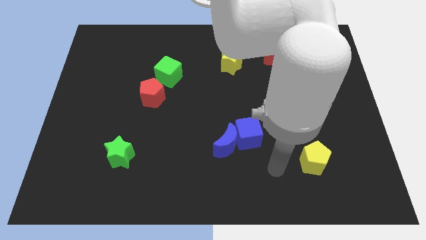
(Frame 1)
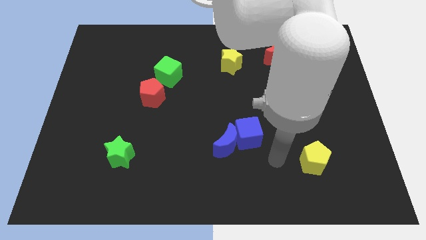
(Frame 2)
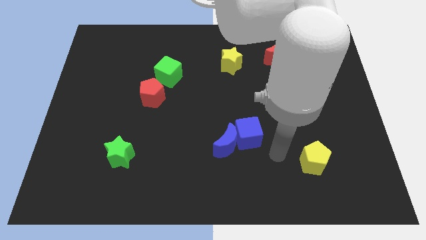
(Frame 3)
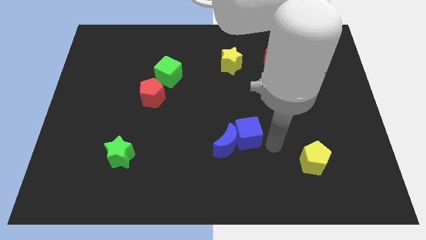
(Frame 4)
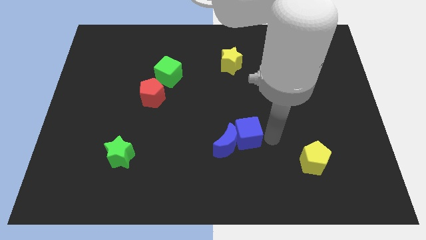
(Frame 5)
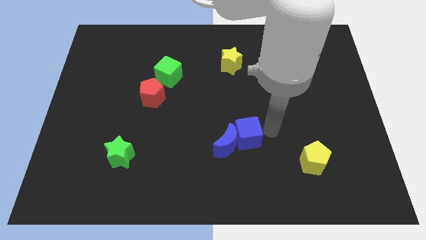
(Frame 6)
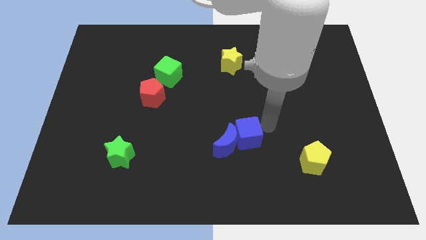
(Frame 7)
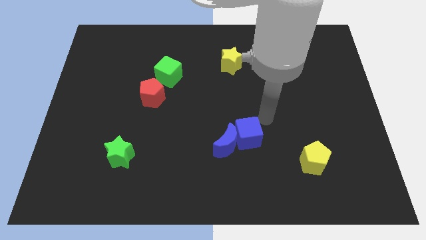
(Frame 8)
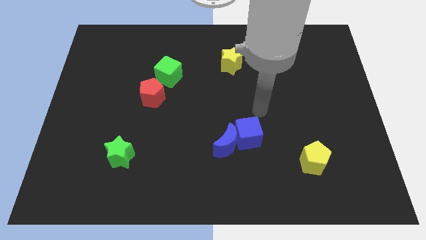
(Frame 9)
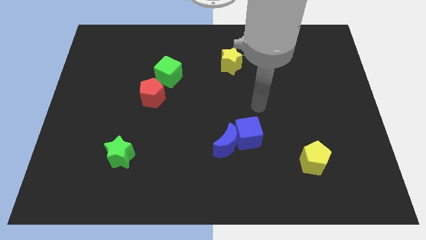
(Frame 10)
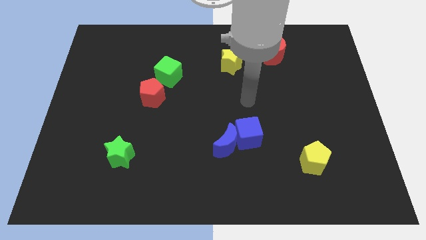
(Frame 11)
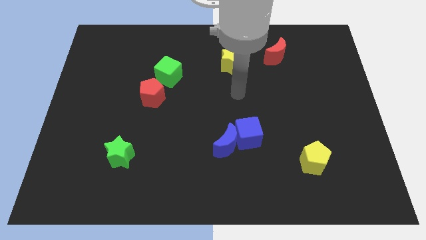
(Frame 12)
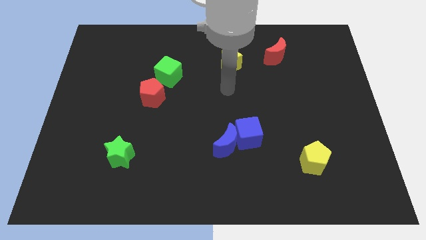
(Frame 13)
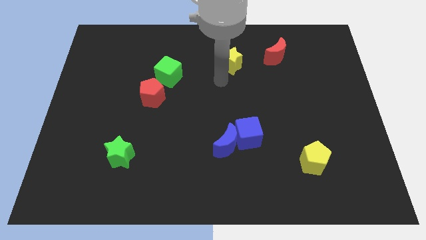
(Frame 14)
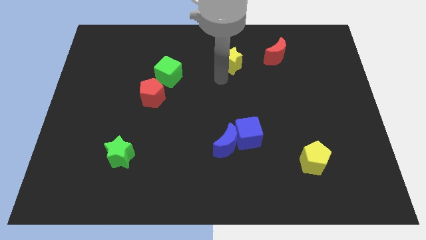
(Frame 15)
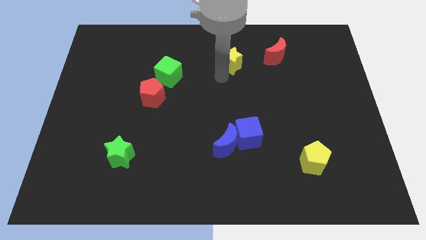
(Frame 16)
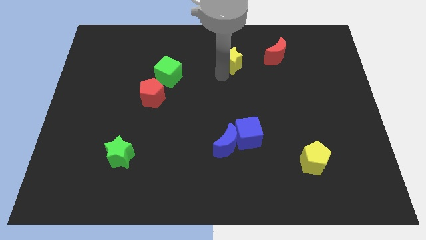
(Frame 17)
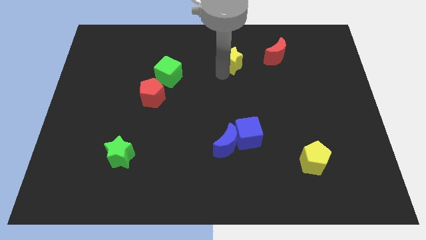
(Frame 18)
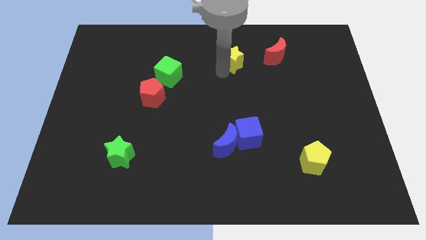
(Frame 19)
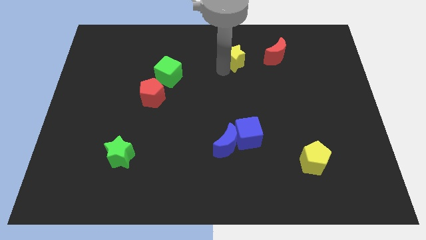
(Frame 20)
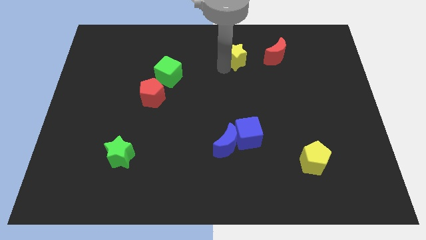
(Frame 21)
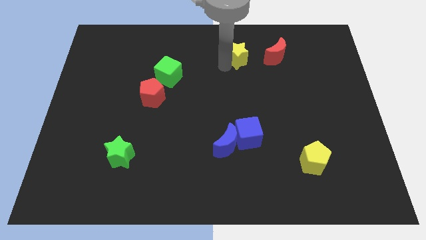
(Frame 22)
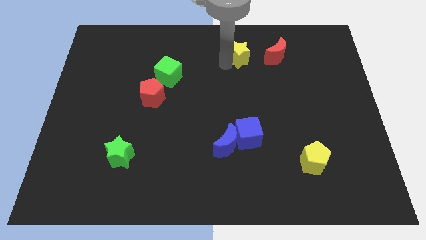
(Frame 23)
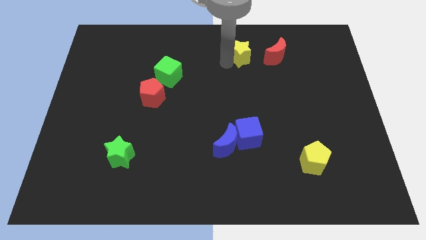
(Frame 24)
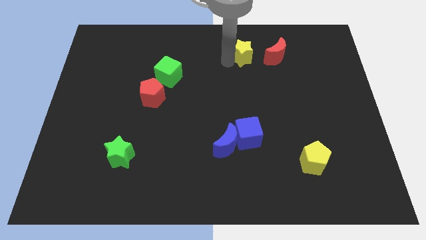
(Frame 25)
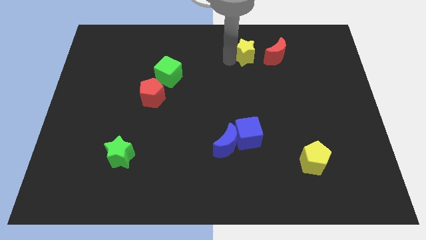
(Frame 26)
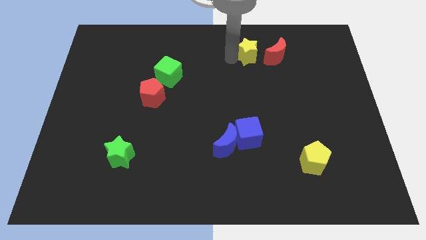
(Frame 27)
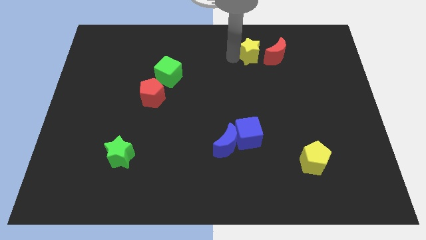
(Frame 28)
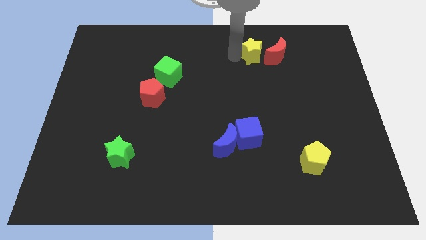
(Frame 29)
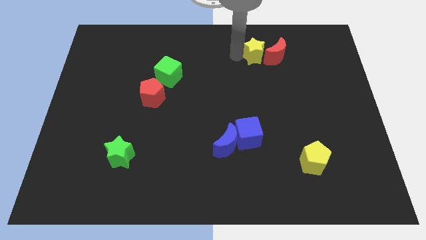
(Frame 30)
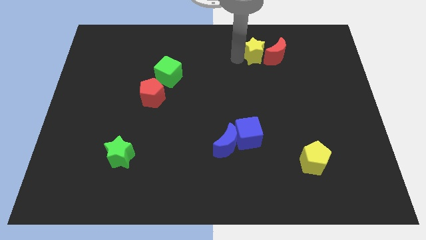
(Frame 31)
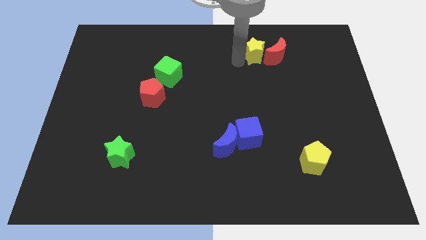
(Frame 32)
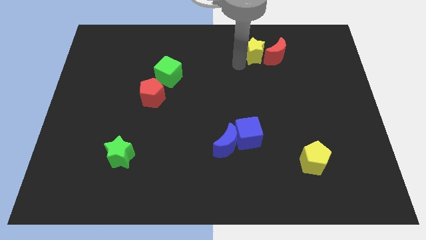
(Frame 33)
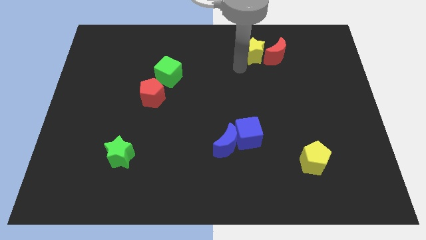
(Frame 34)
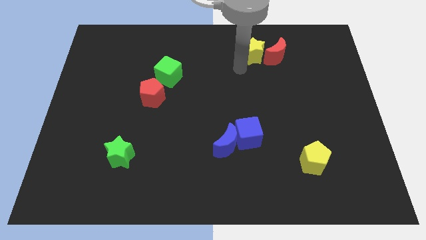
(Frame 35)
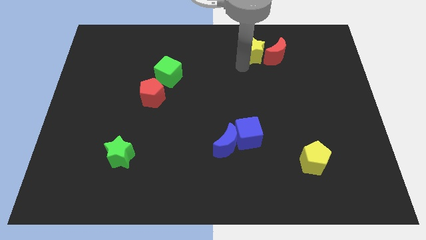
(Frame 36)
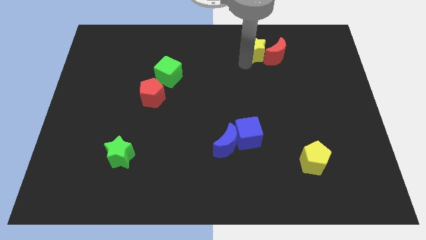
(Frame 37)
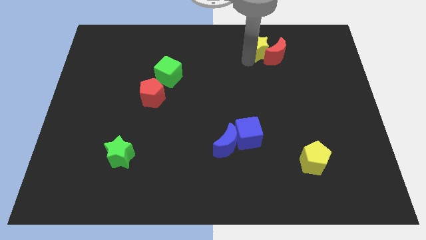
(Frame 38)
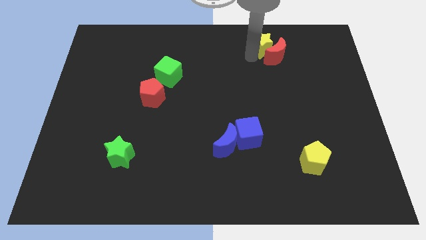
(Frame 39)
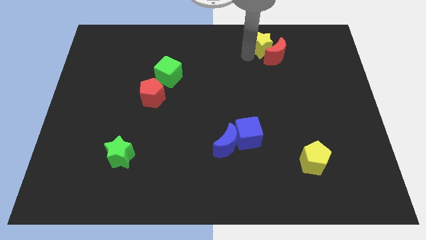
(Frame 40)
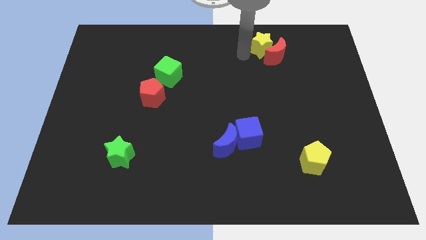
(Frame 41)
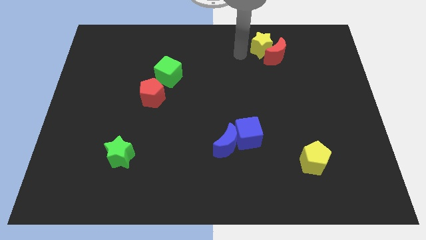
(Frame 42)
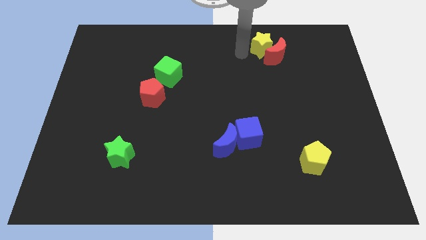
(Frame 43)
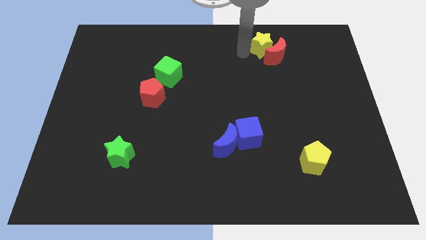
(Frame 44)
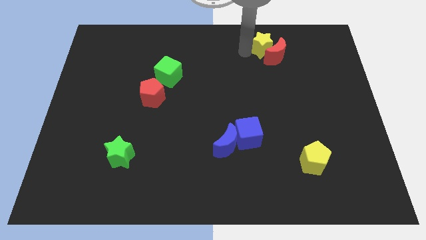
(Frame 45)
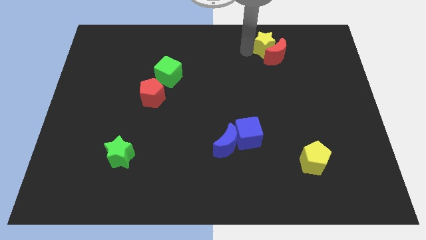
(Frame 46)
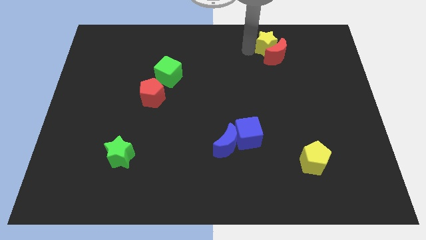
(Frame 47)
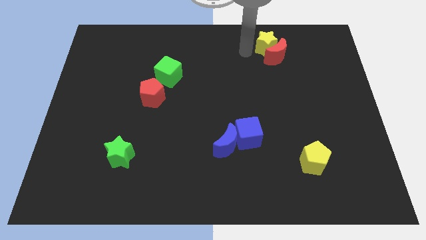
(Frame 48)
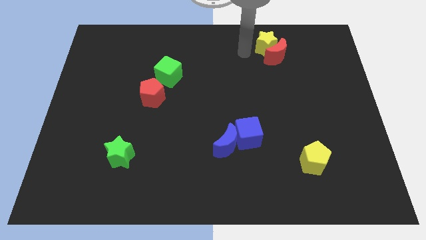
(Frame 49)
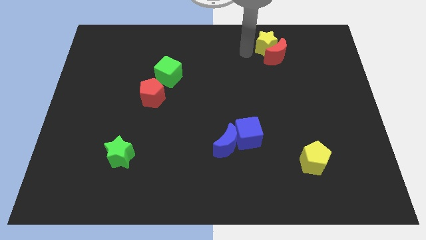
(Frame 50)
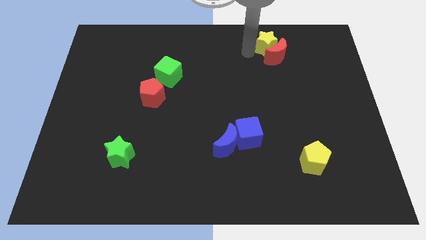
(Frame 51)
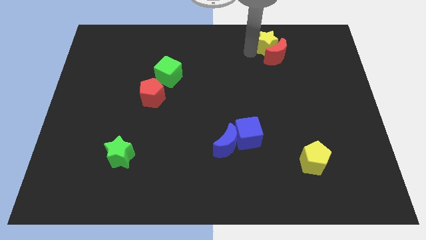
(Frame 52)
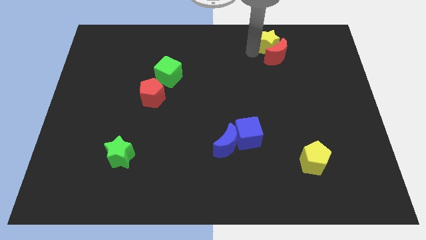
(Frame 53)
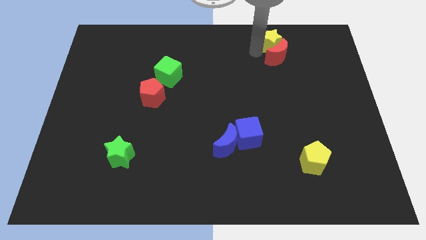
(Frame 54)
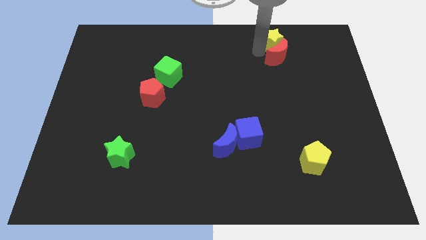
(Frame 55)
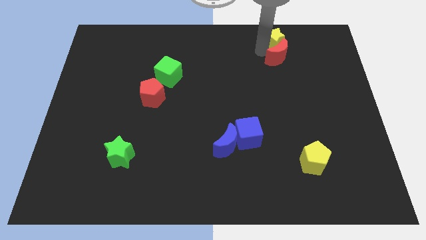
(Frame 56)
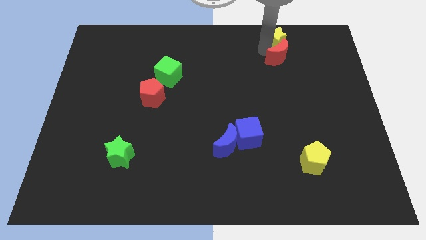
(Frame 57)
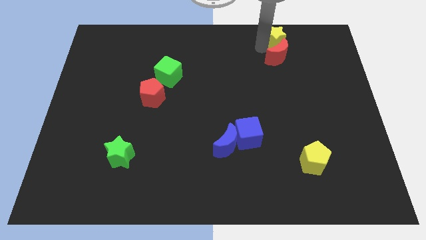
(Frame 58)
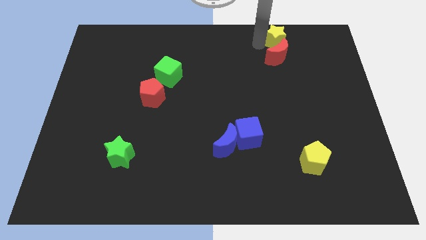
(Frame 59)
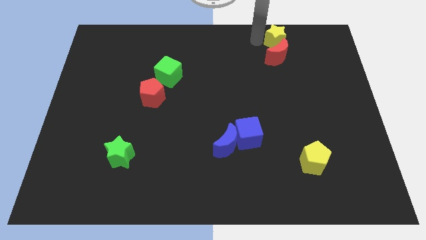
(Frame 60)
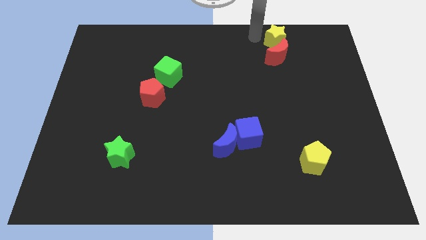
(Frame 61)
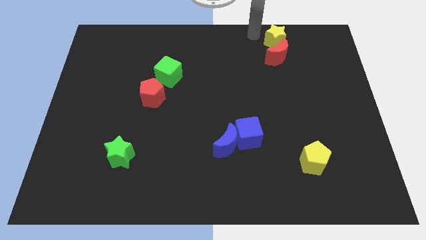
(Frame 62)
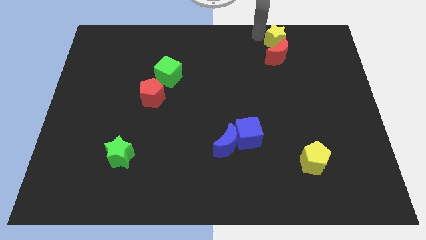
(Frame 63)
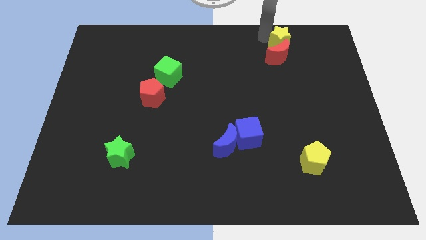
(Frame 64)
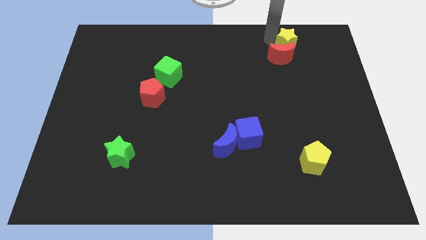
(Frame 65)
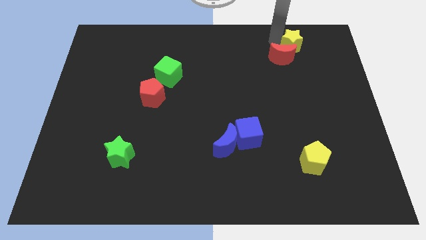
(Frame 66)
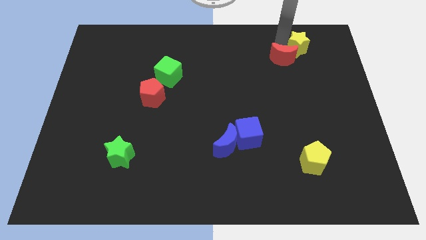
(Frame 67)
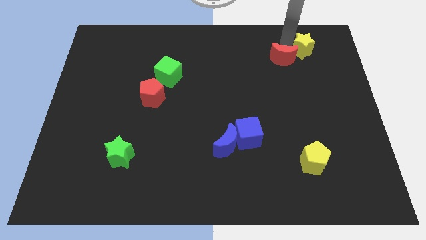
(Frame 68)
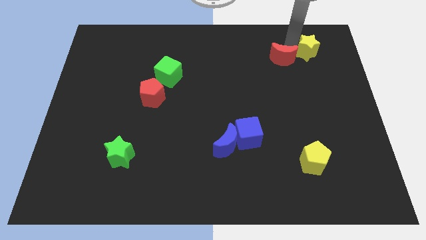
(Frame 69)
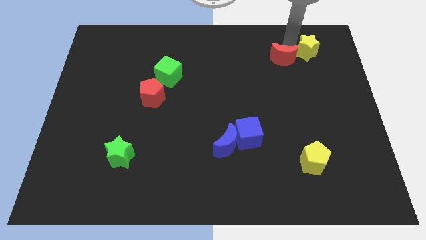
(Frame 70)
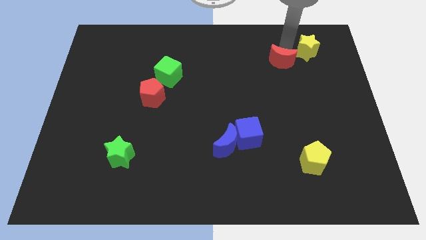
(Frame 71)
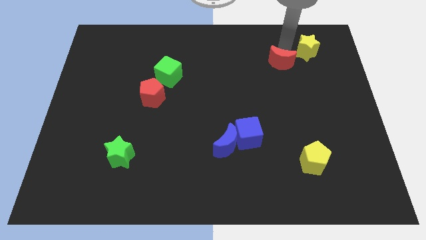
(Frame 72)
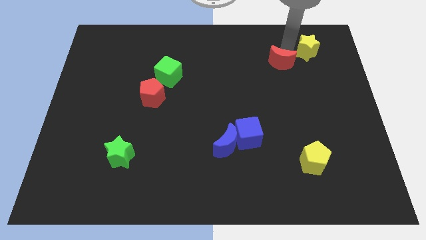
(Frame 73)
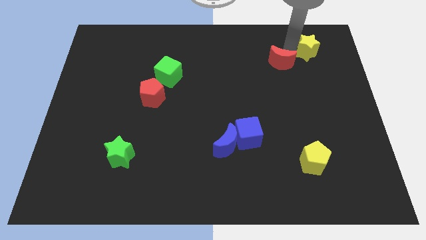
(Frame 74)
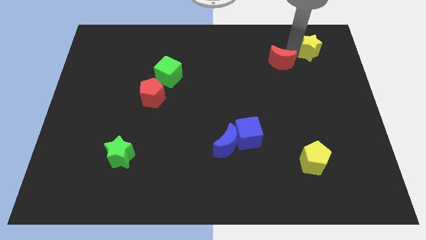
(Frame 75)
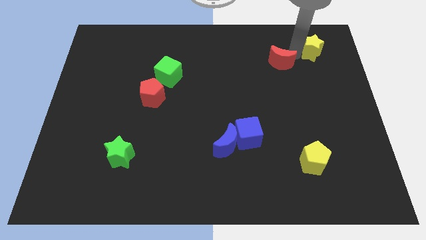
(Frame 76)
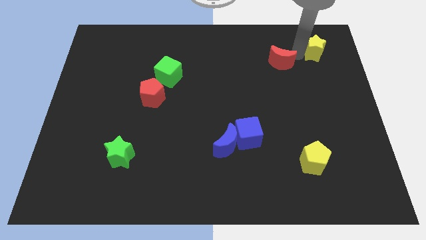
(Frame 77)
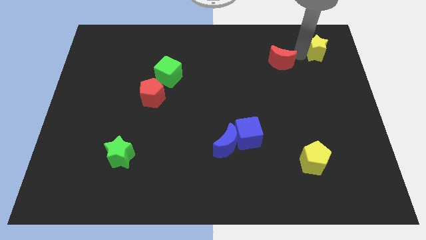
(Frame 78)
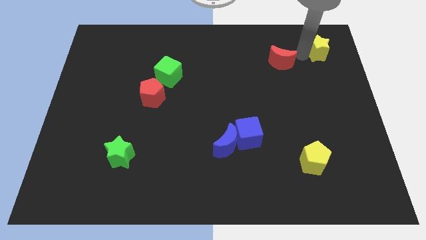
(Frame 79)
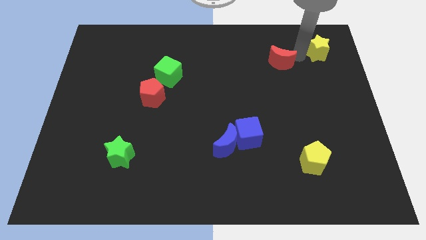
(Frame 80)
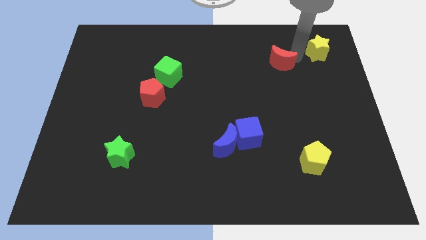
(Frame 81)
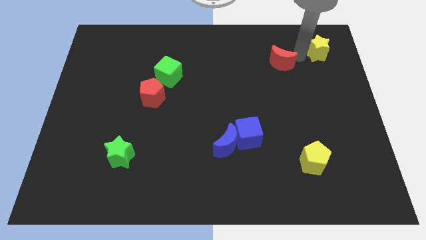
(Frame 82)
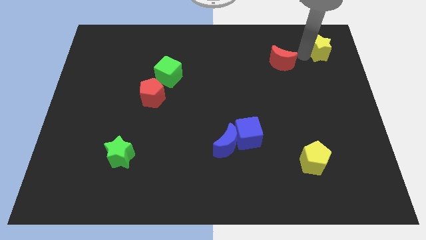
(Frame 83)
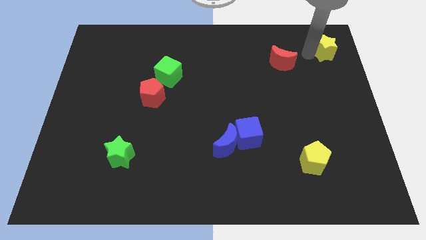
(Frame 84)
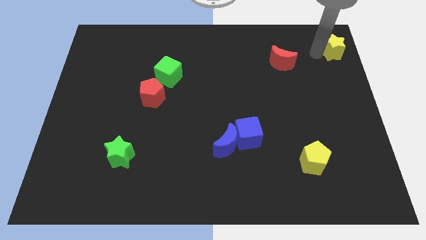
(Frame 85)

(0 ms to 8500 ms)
move the yellow star to the top right corner
